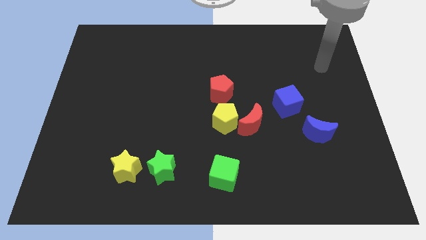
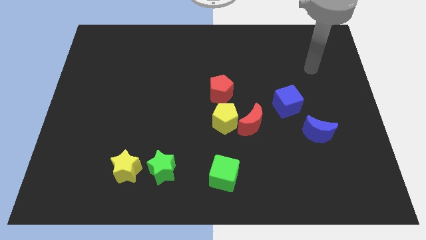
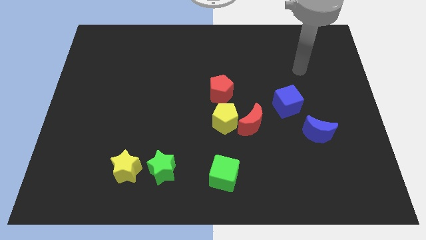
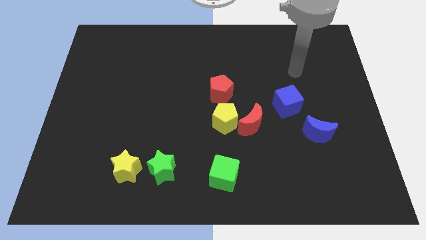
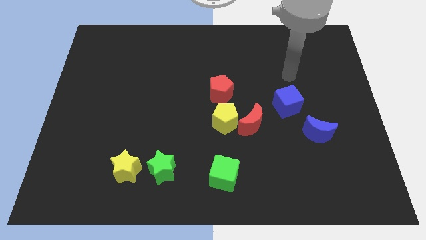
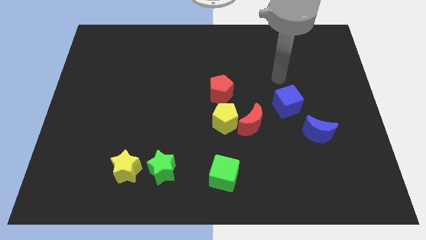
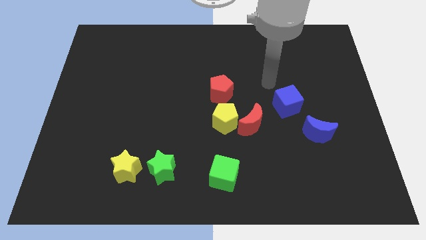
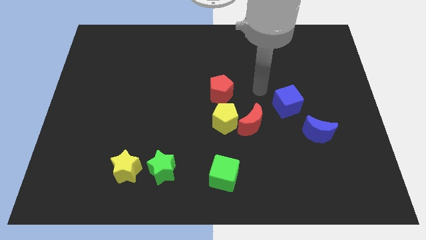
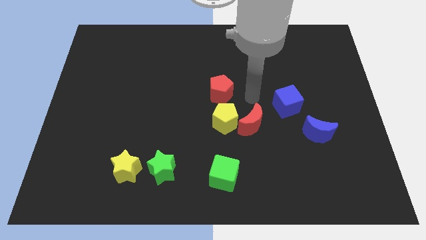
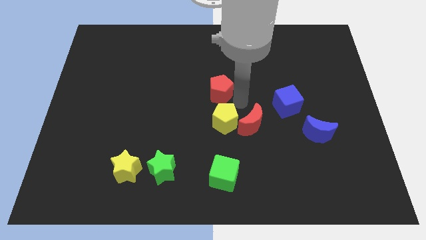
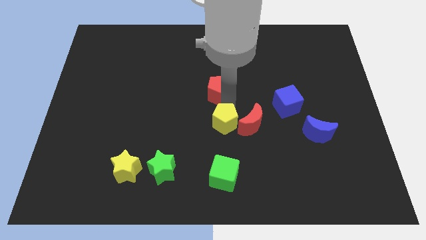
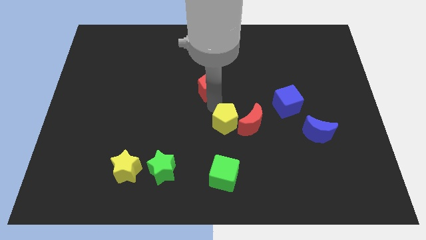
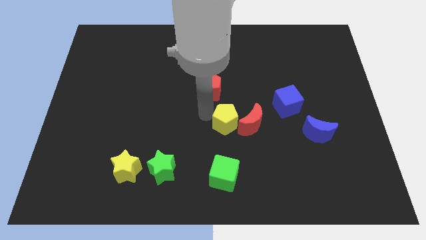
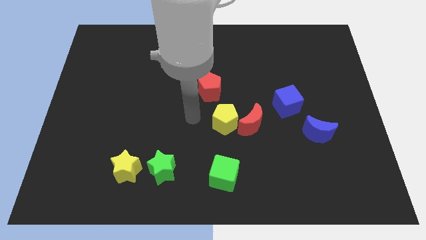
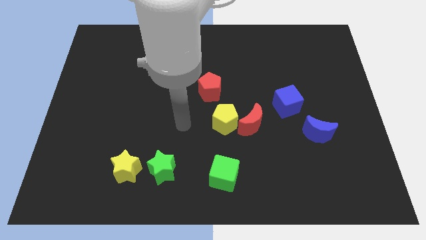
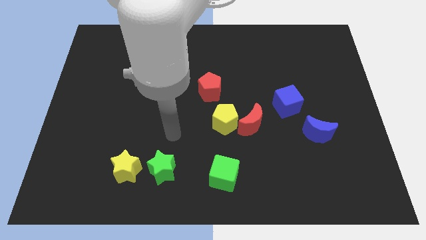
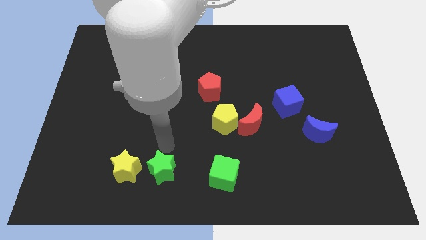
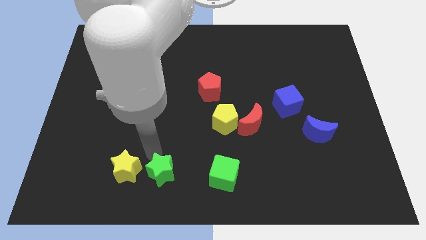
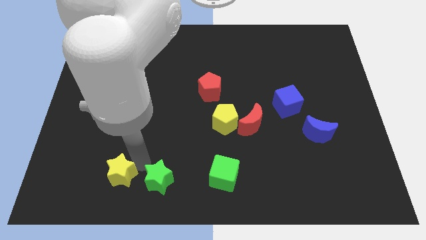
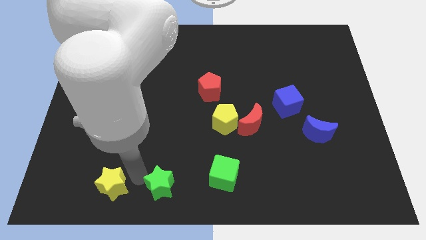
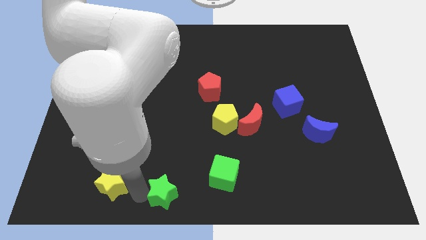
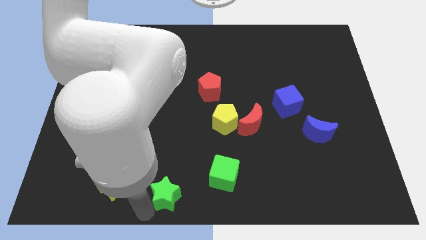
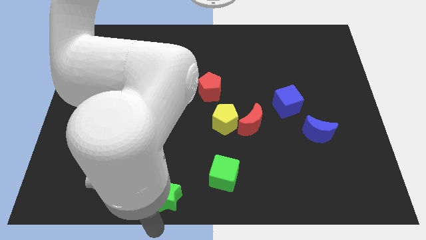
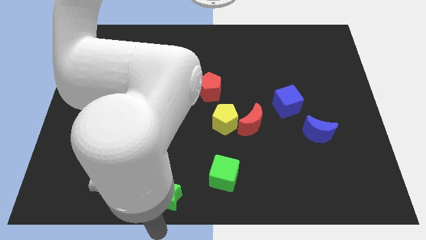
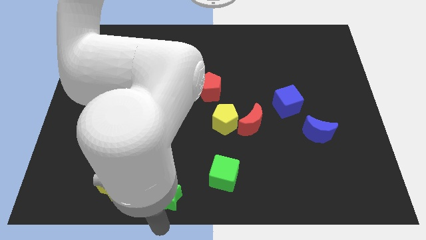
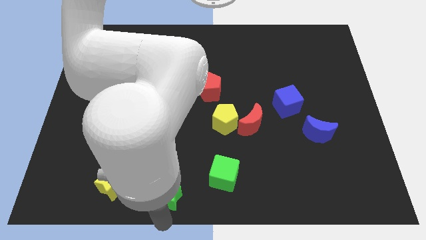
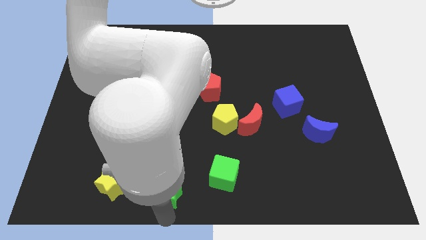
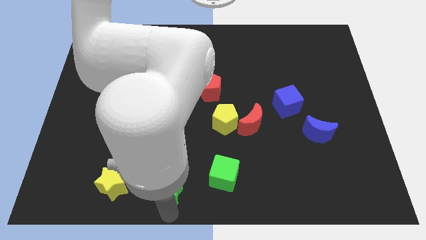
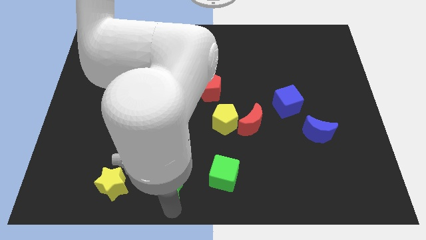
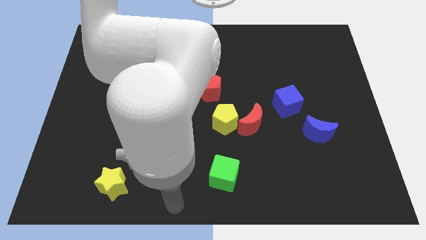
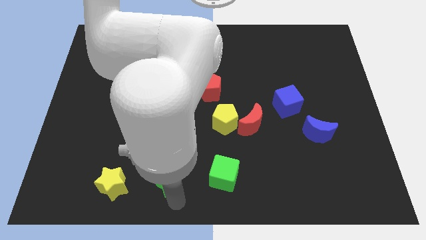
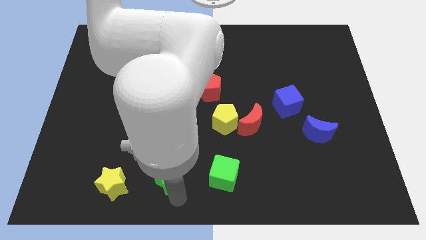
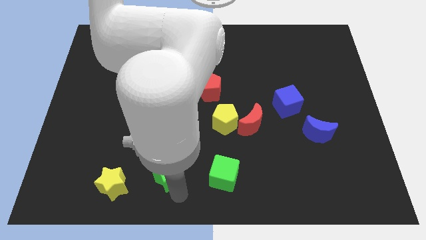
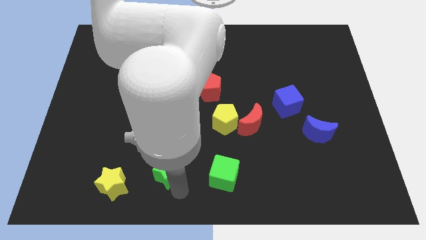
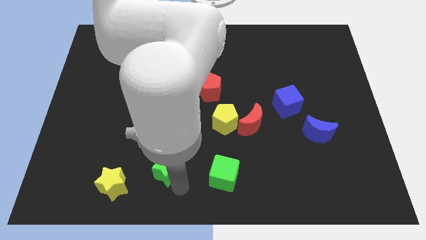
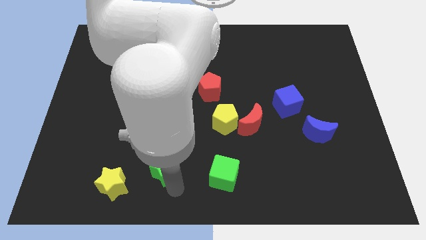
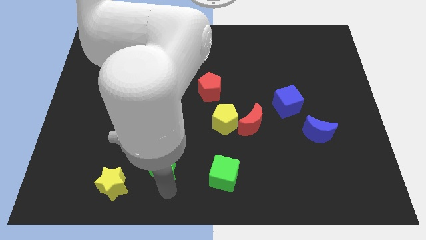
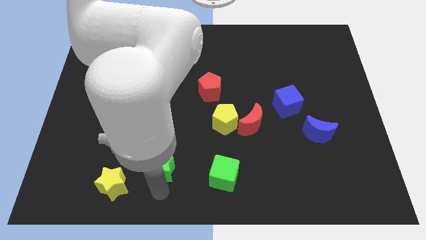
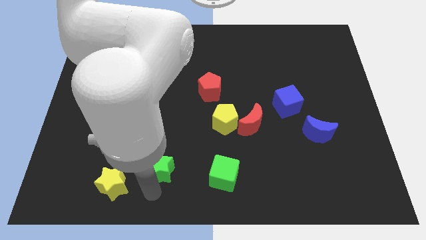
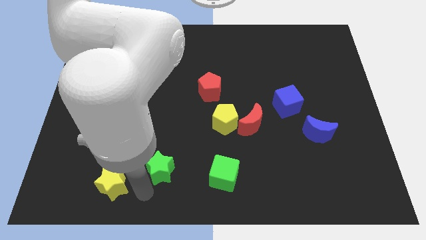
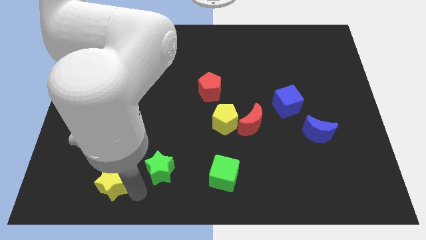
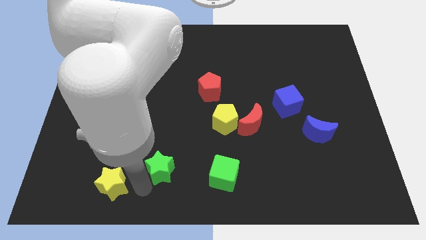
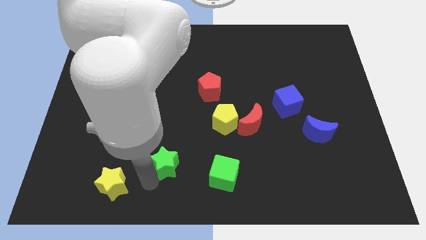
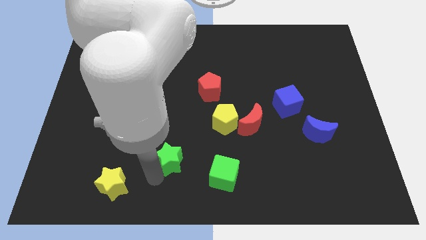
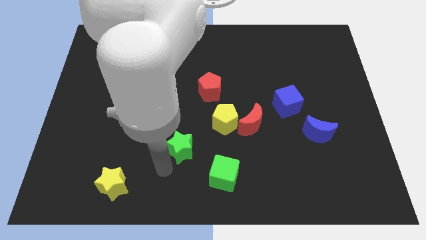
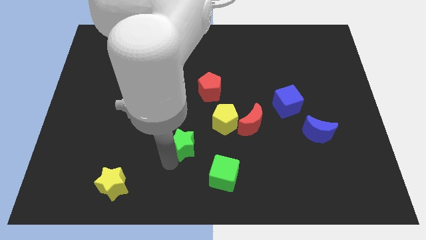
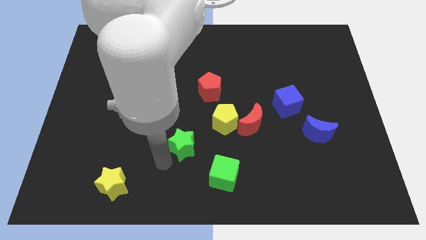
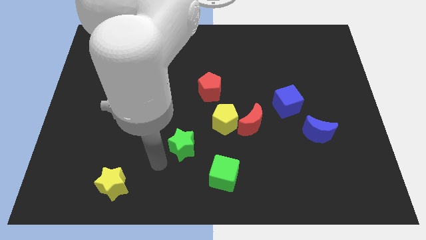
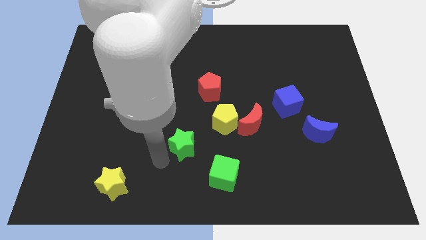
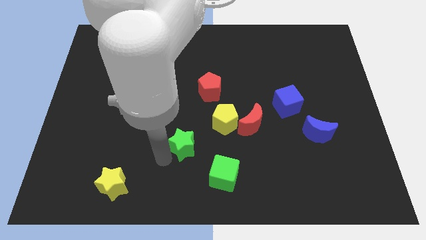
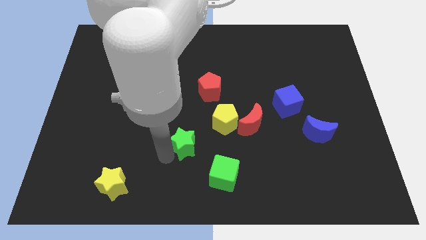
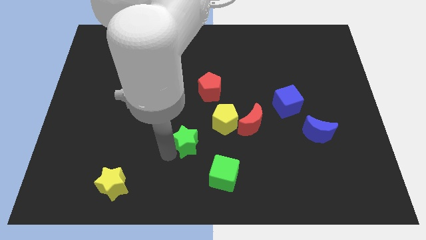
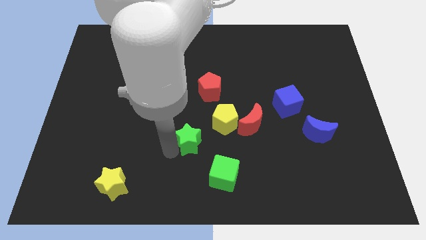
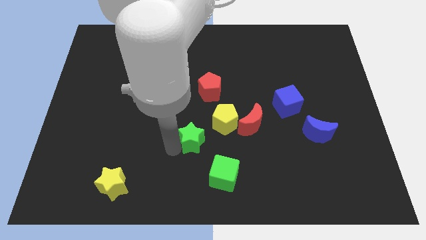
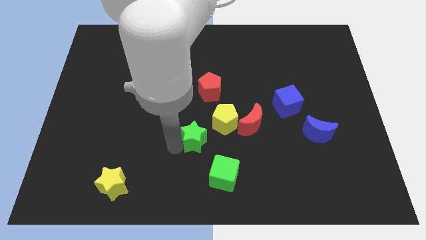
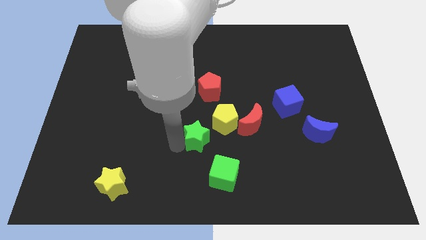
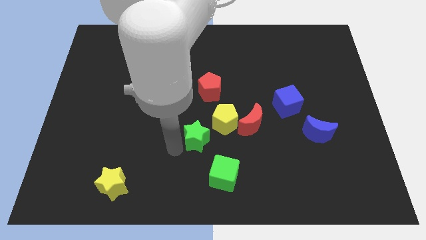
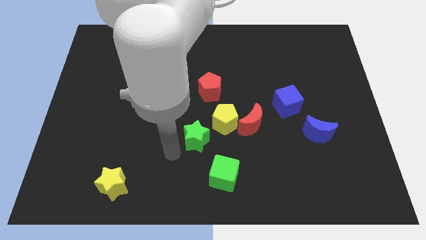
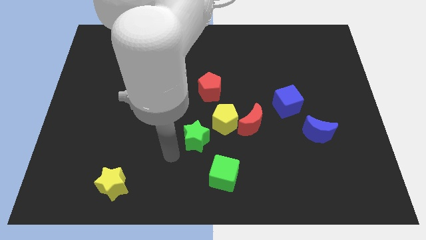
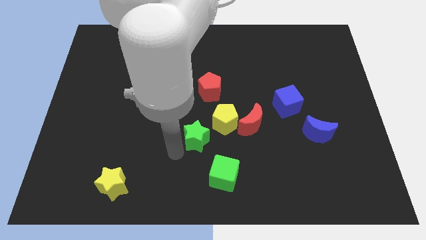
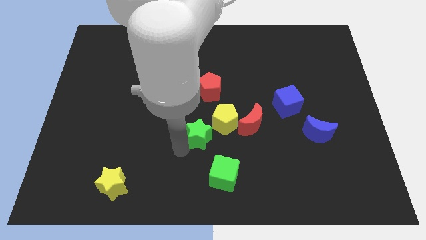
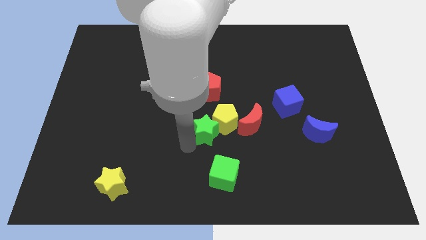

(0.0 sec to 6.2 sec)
slide the green star to the yellow pentagon

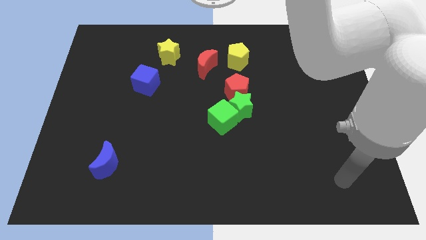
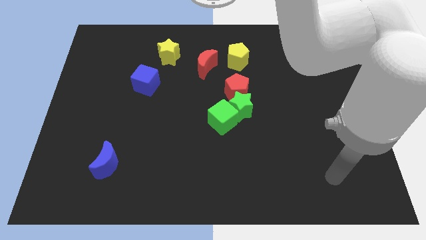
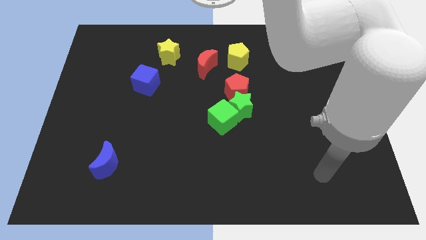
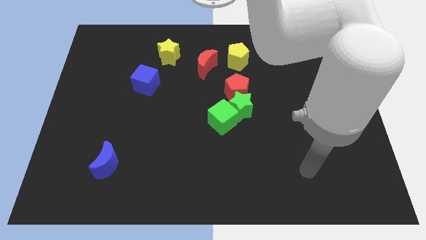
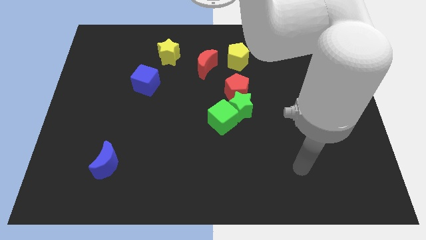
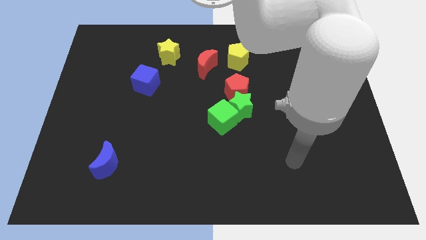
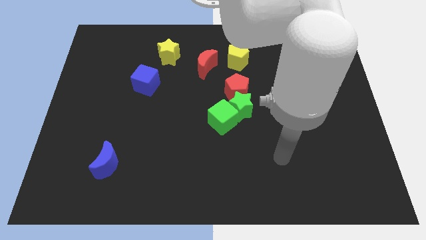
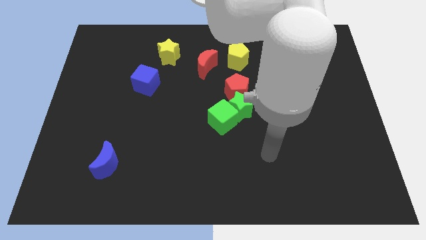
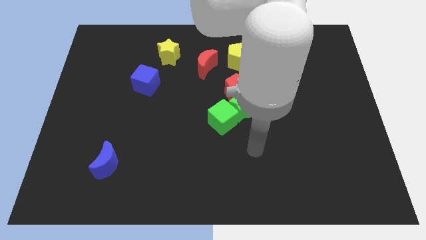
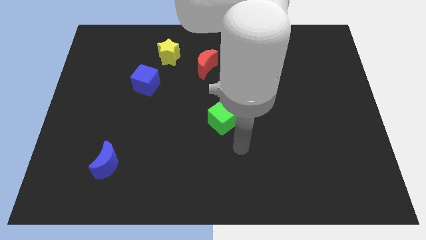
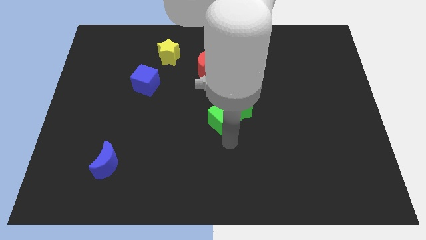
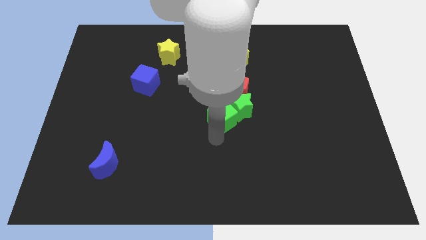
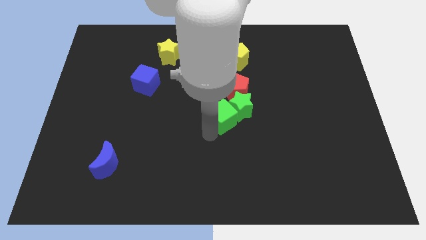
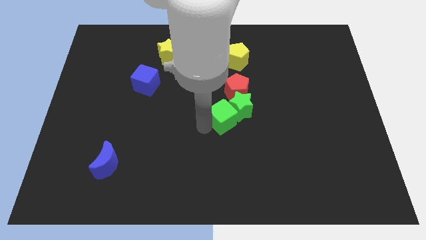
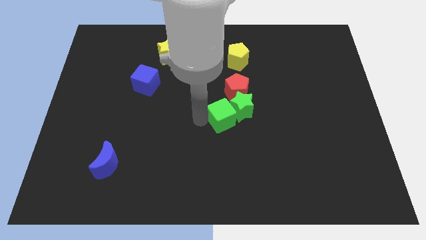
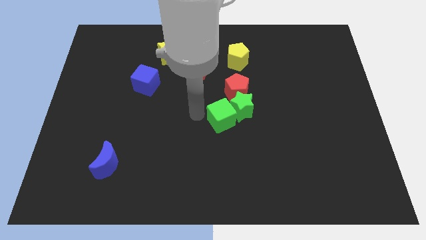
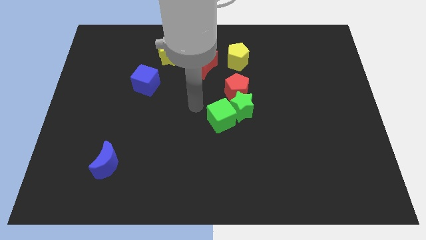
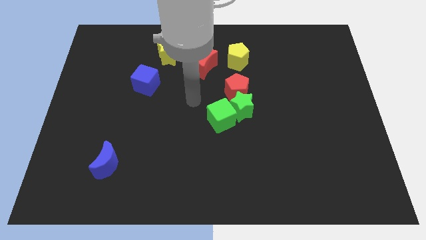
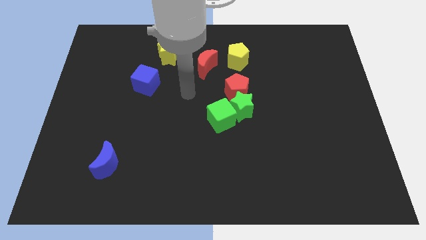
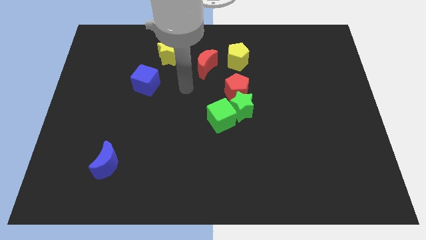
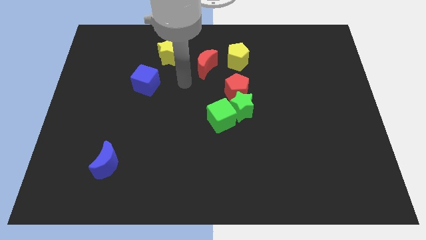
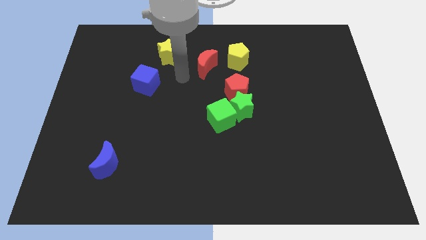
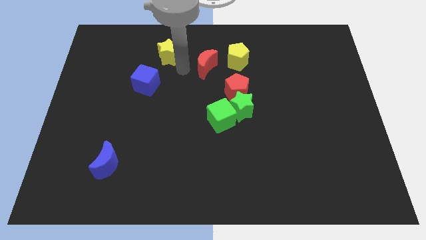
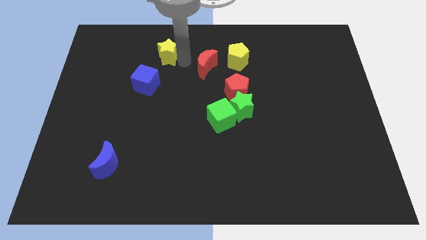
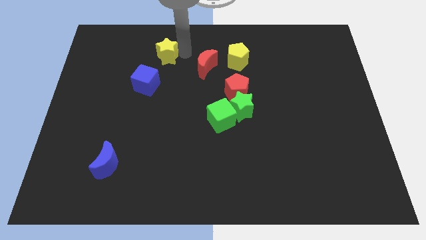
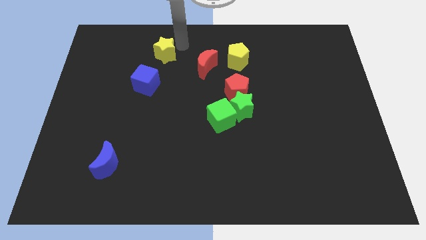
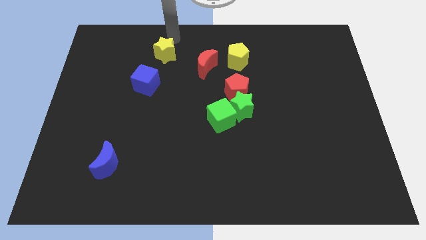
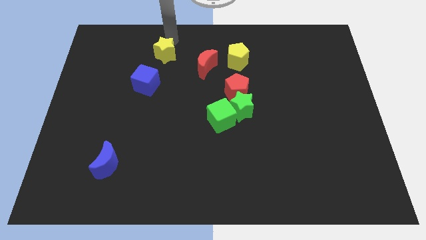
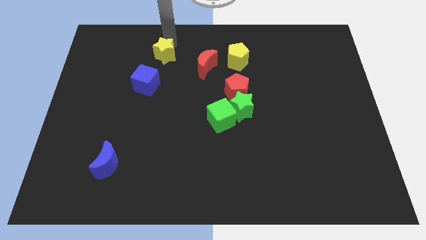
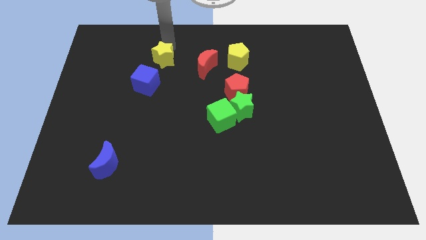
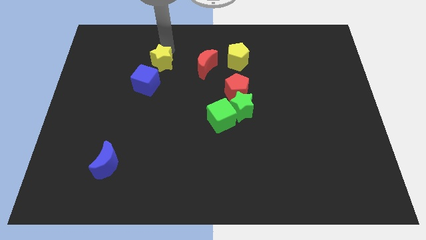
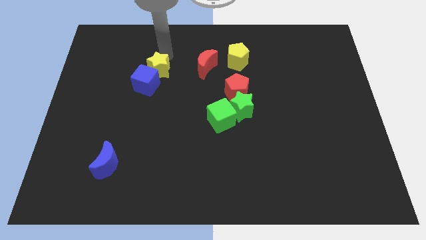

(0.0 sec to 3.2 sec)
slide the yellow star close to the blue cube
